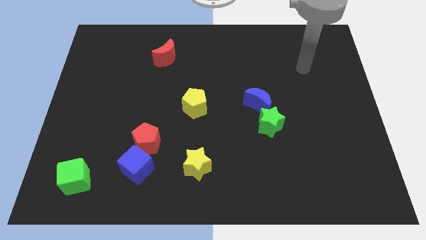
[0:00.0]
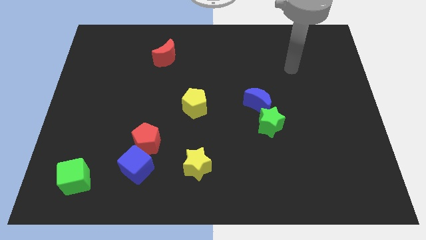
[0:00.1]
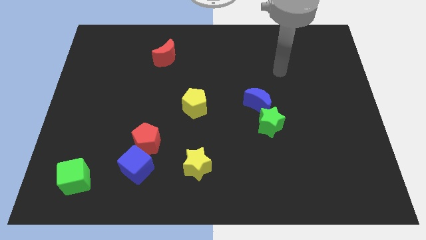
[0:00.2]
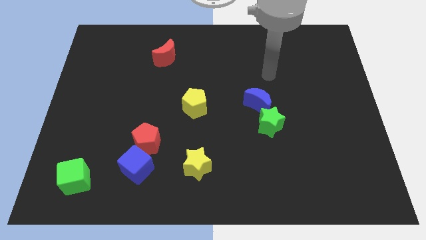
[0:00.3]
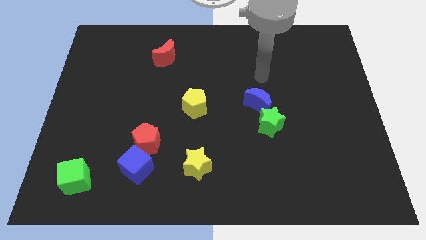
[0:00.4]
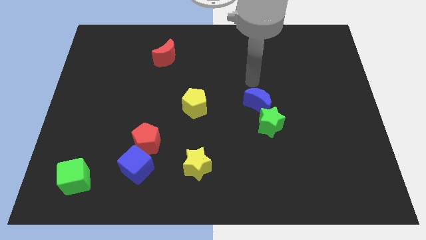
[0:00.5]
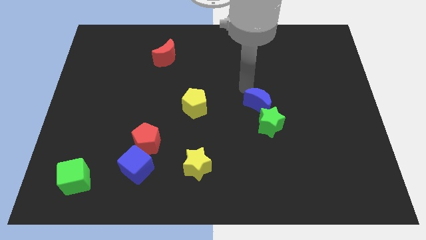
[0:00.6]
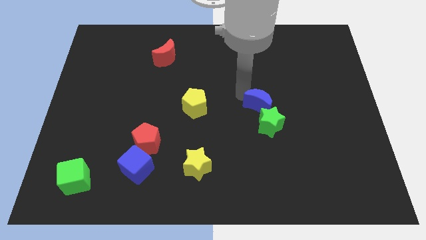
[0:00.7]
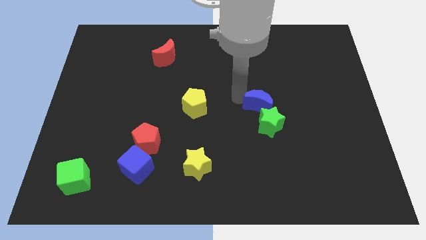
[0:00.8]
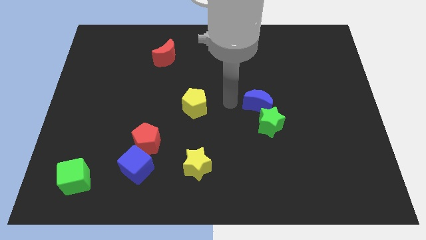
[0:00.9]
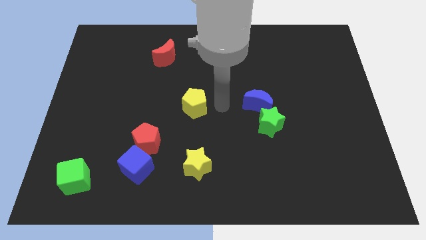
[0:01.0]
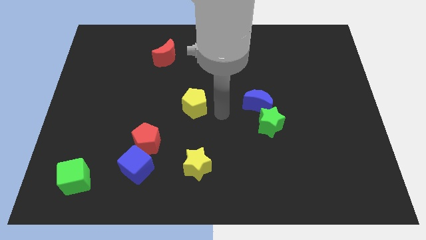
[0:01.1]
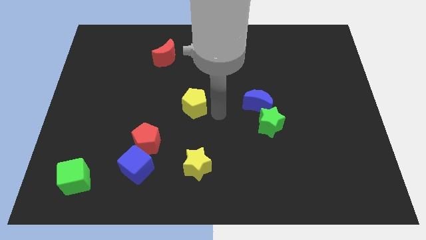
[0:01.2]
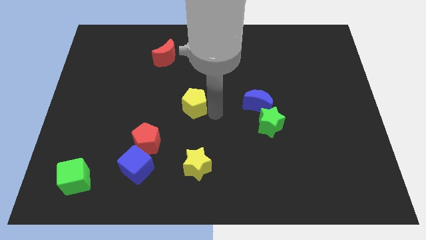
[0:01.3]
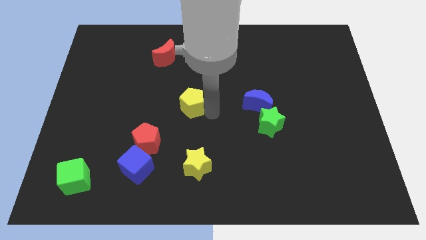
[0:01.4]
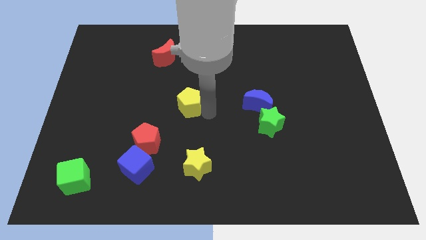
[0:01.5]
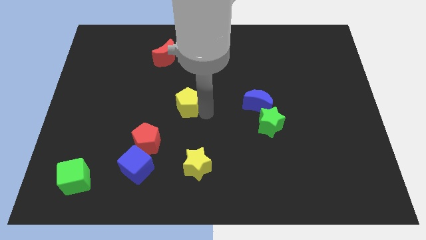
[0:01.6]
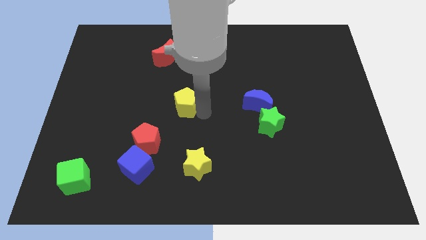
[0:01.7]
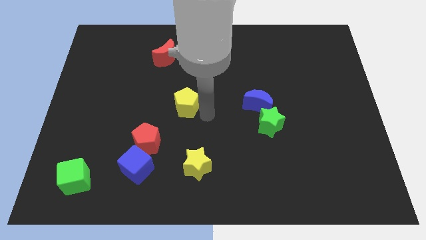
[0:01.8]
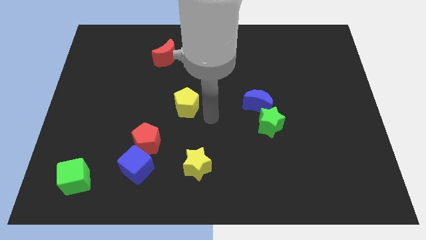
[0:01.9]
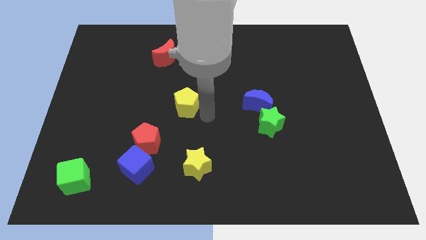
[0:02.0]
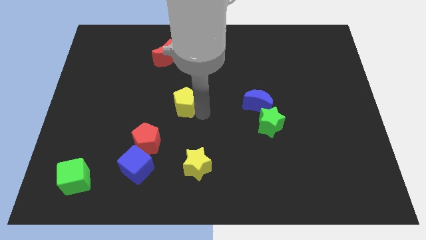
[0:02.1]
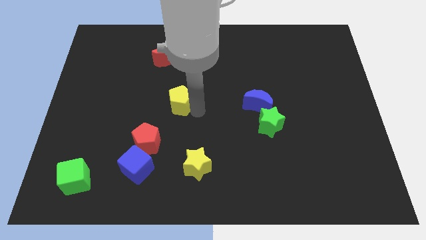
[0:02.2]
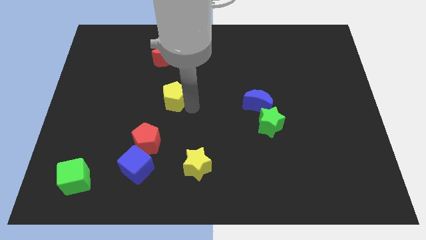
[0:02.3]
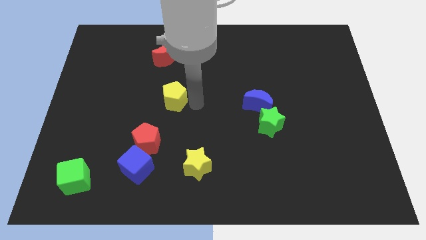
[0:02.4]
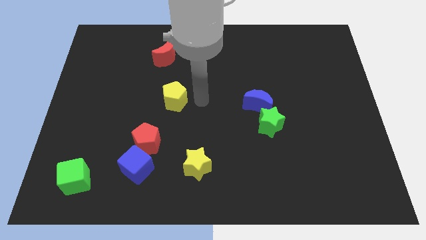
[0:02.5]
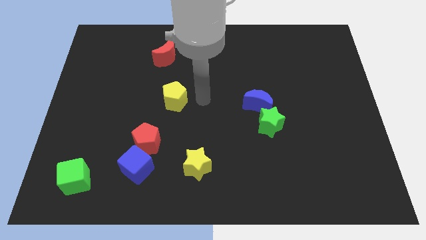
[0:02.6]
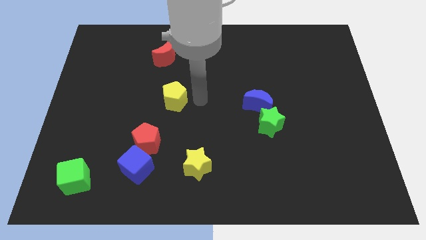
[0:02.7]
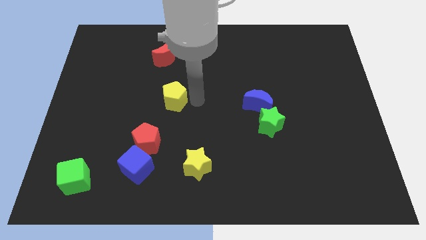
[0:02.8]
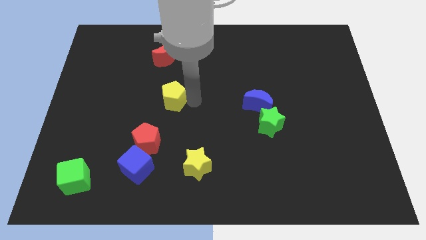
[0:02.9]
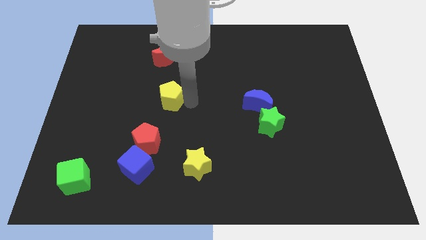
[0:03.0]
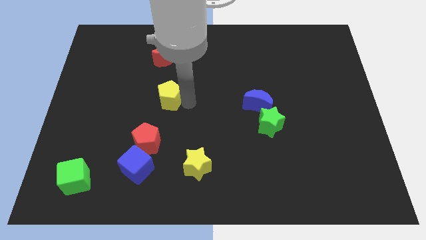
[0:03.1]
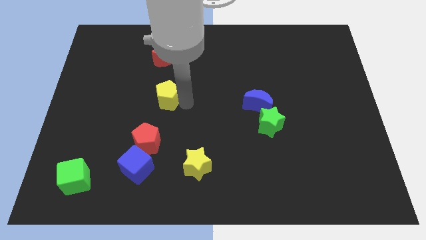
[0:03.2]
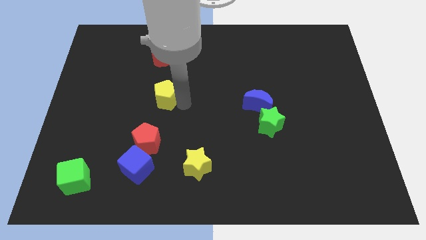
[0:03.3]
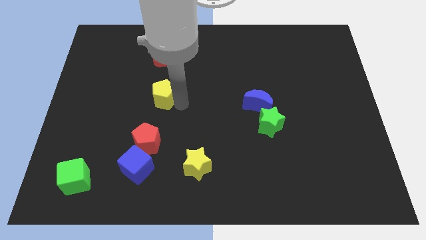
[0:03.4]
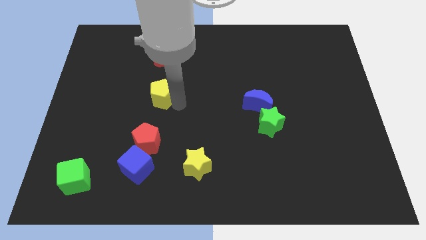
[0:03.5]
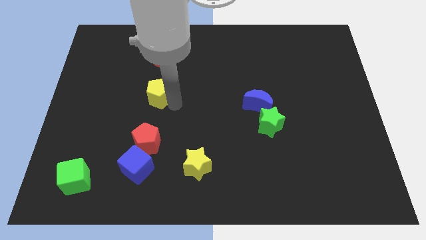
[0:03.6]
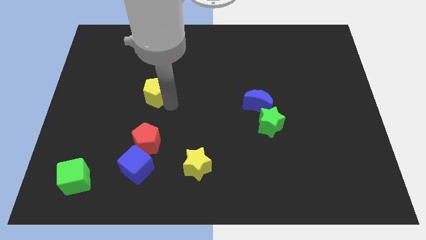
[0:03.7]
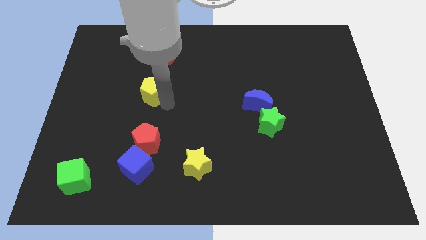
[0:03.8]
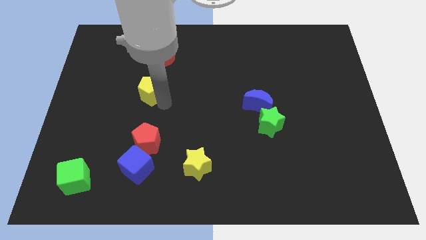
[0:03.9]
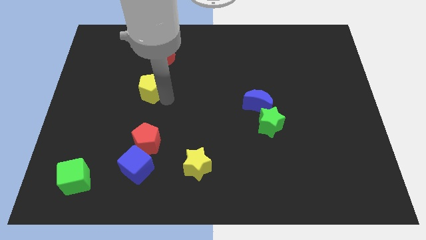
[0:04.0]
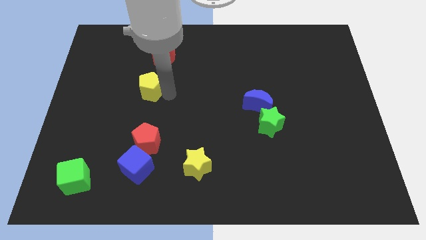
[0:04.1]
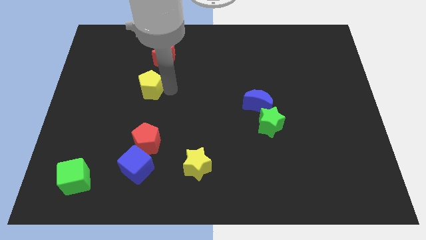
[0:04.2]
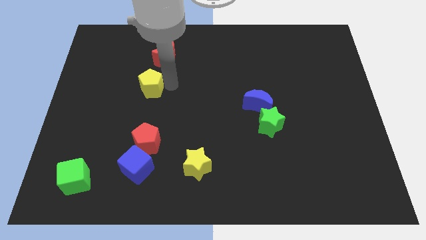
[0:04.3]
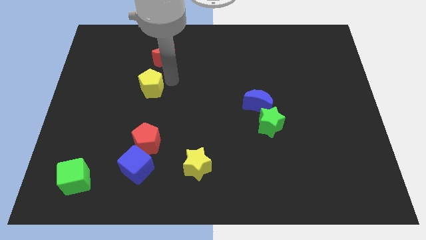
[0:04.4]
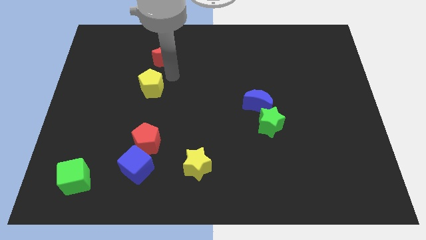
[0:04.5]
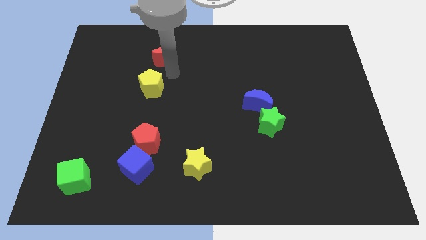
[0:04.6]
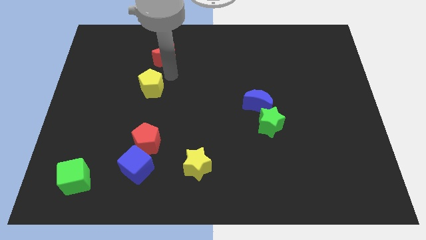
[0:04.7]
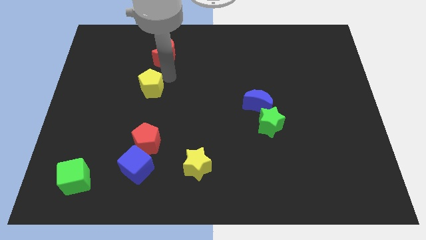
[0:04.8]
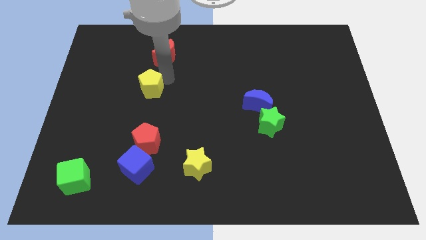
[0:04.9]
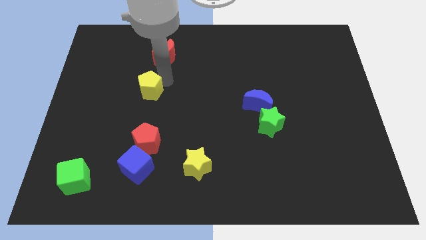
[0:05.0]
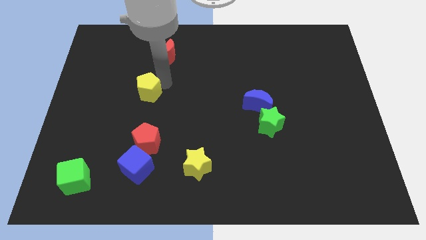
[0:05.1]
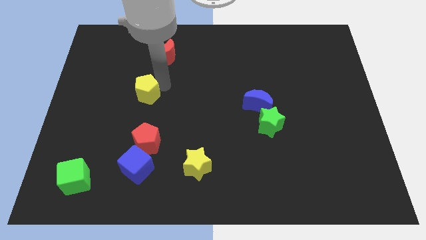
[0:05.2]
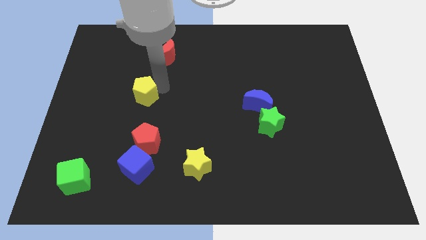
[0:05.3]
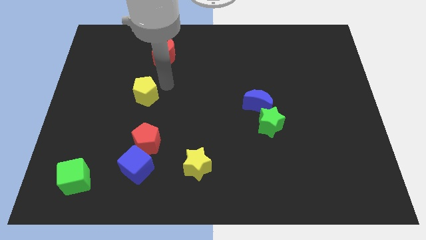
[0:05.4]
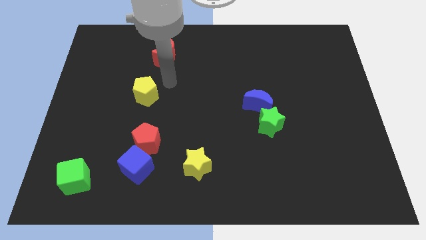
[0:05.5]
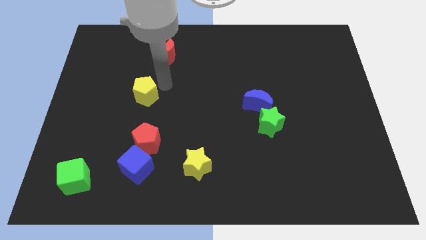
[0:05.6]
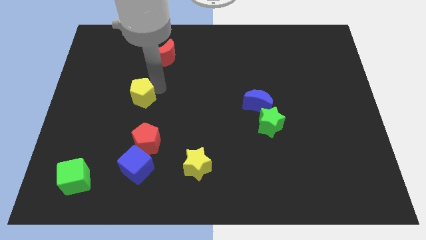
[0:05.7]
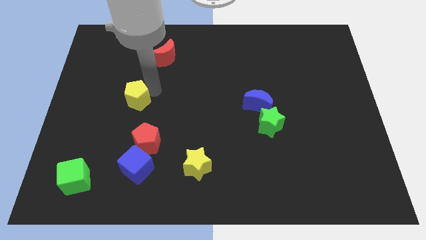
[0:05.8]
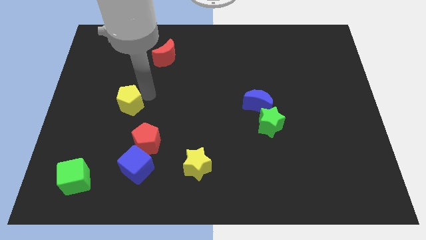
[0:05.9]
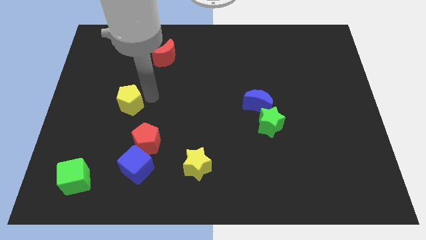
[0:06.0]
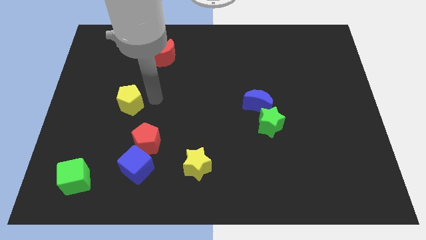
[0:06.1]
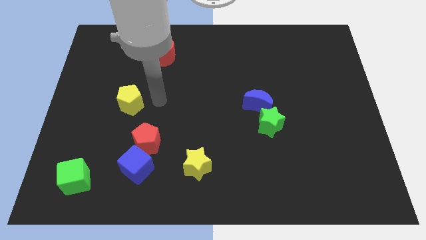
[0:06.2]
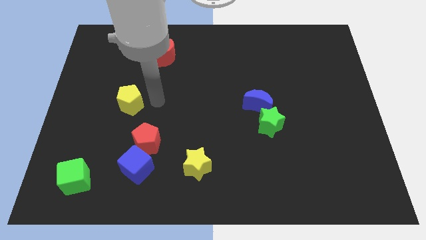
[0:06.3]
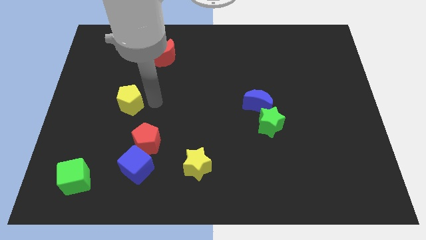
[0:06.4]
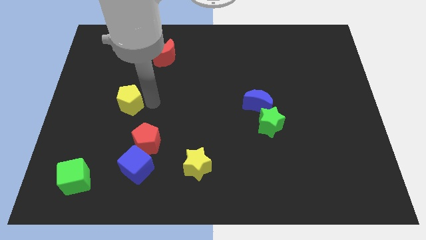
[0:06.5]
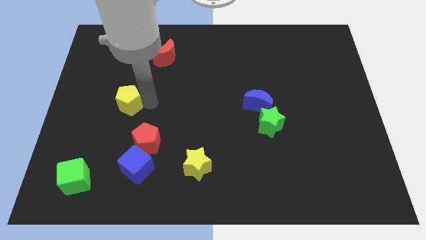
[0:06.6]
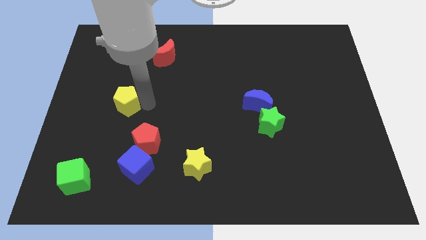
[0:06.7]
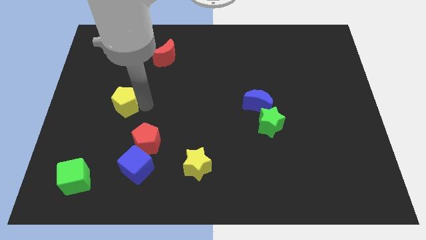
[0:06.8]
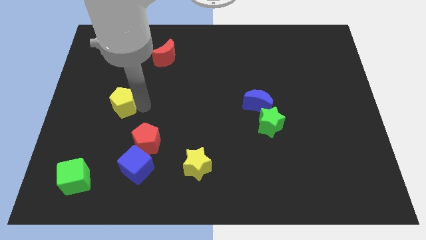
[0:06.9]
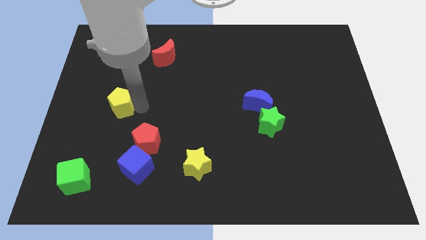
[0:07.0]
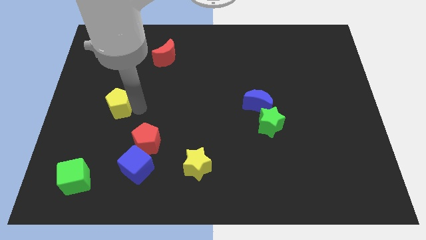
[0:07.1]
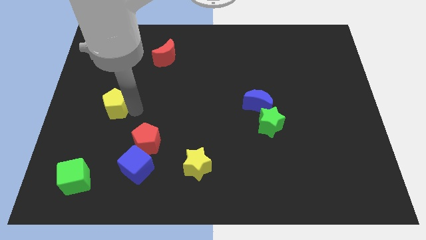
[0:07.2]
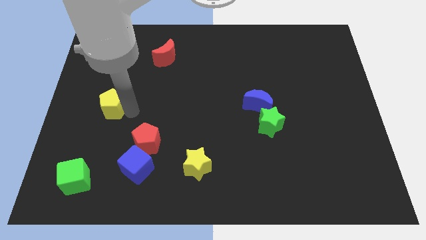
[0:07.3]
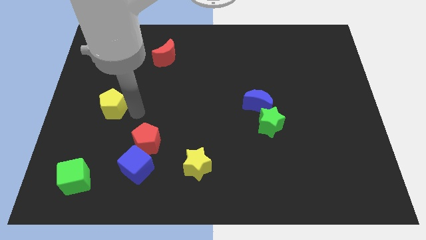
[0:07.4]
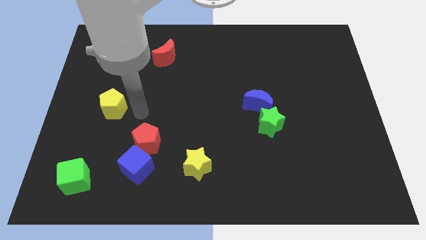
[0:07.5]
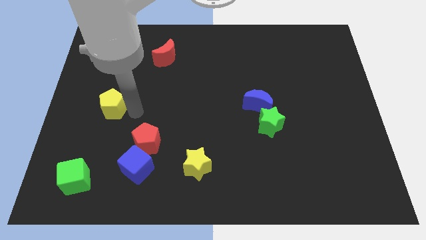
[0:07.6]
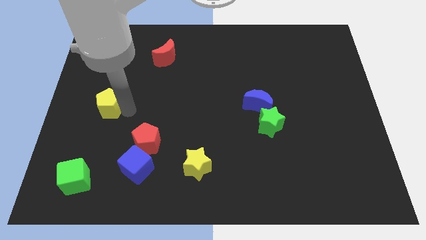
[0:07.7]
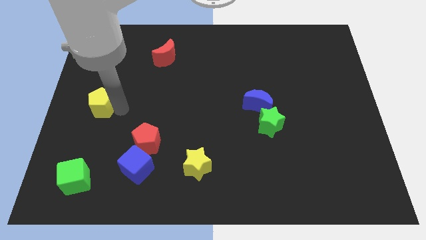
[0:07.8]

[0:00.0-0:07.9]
slide the yellow pentagon to the left side
